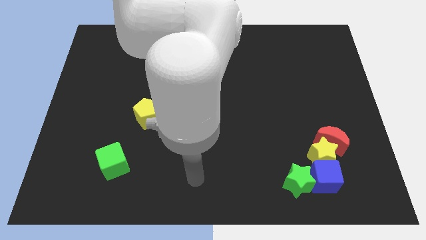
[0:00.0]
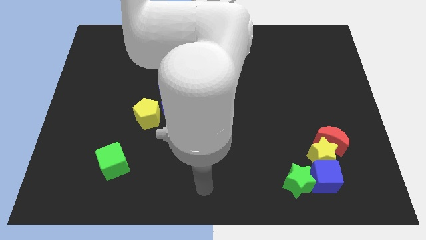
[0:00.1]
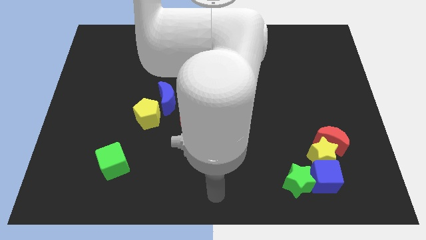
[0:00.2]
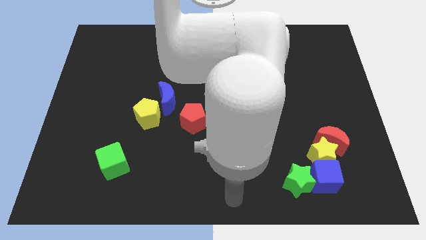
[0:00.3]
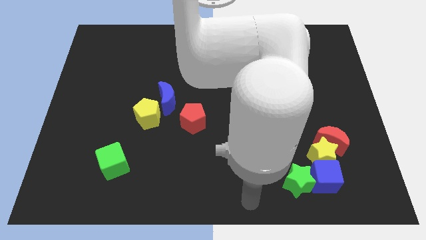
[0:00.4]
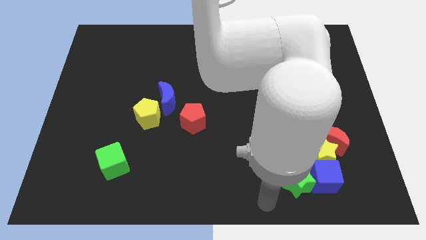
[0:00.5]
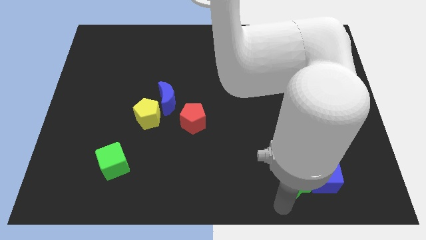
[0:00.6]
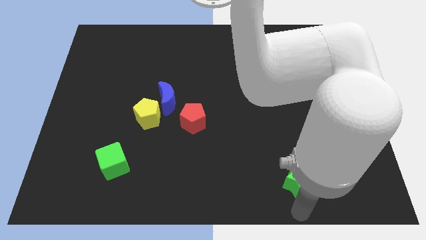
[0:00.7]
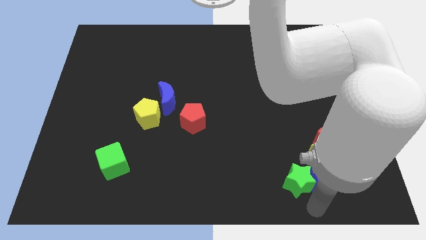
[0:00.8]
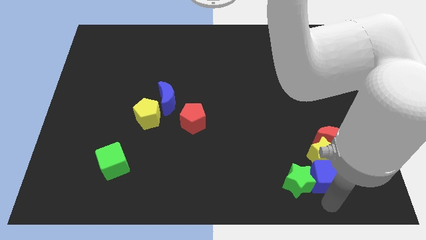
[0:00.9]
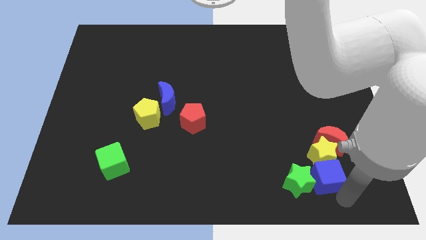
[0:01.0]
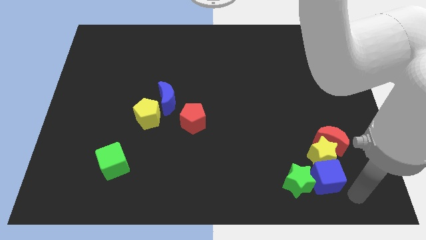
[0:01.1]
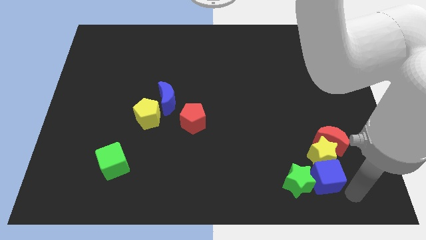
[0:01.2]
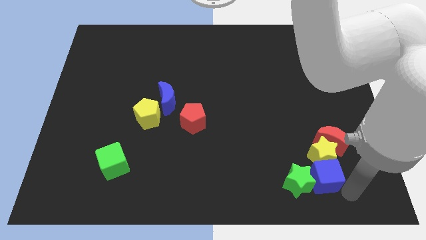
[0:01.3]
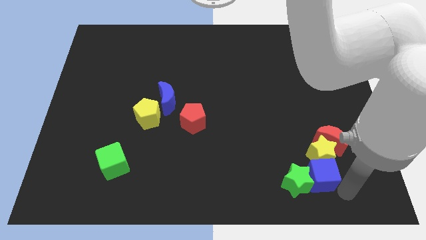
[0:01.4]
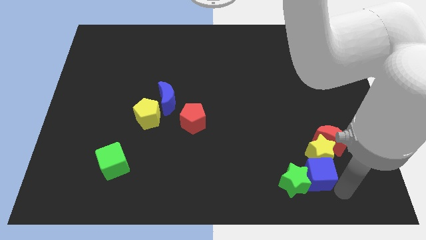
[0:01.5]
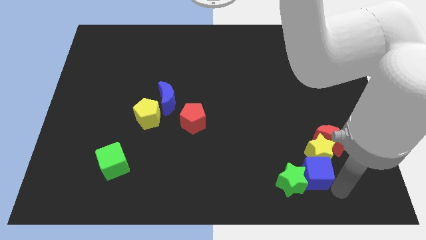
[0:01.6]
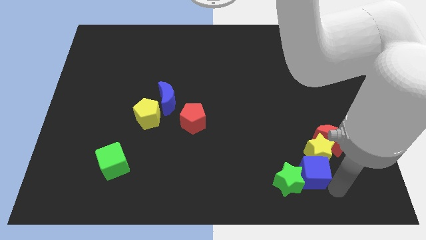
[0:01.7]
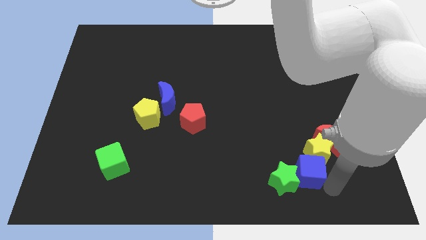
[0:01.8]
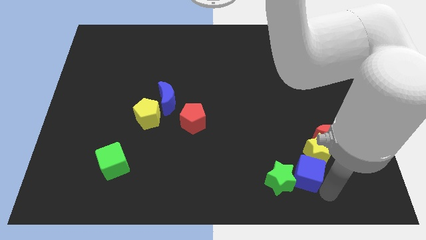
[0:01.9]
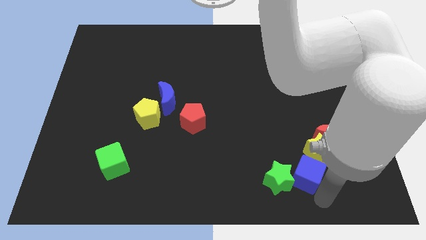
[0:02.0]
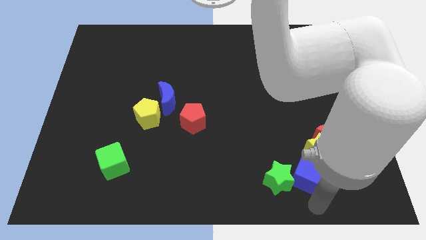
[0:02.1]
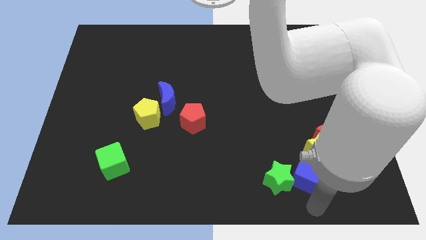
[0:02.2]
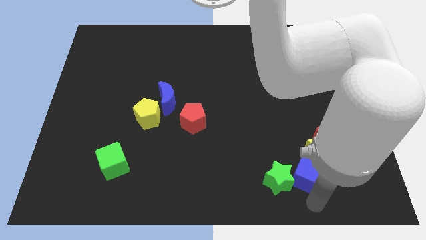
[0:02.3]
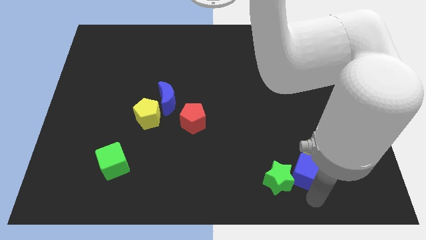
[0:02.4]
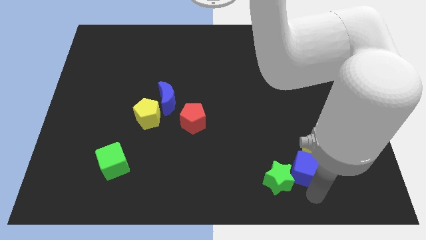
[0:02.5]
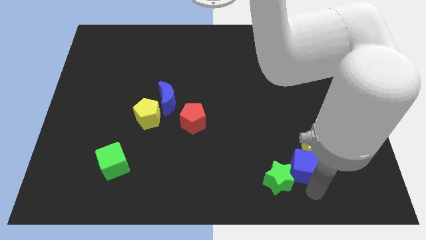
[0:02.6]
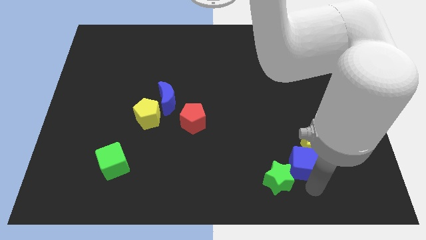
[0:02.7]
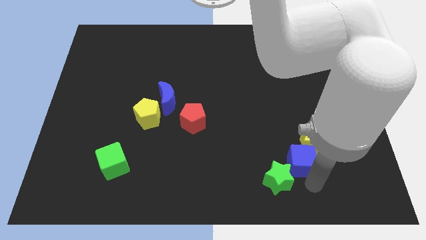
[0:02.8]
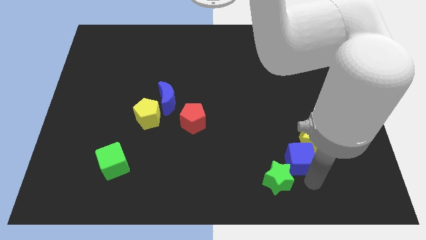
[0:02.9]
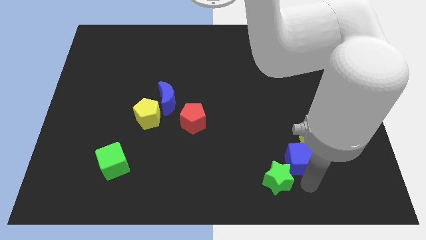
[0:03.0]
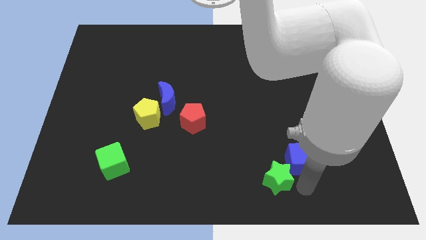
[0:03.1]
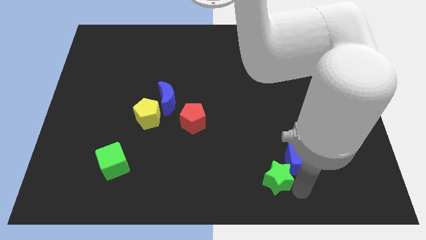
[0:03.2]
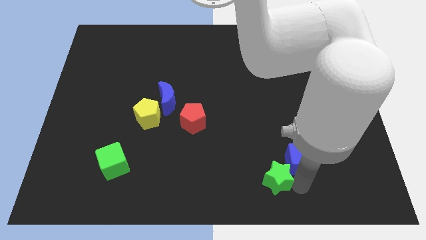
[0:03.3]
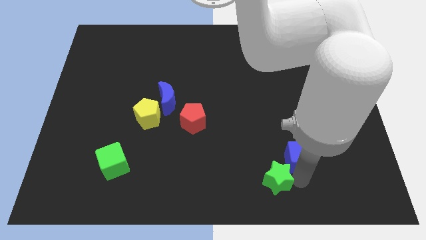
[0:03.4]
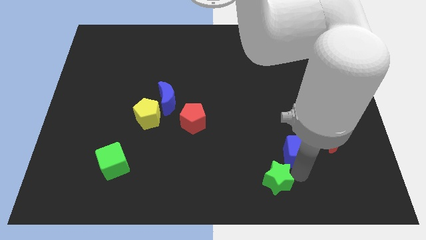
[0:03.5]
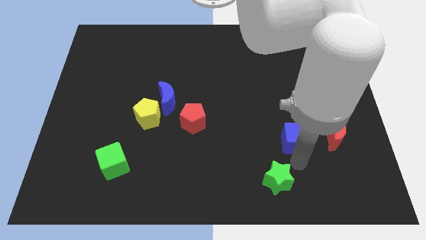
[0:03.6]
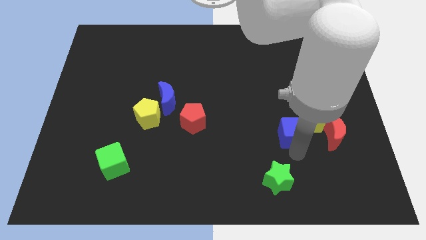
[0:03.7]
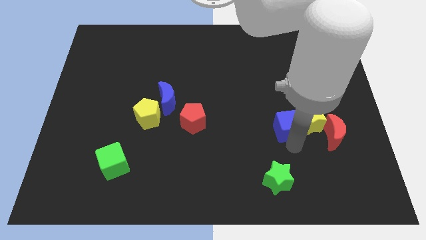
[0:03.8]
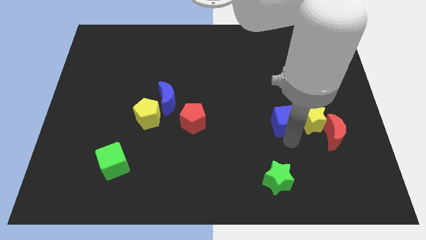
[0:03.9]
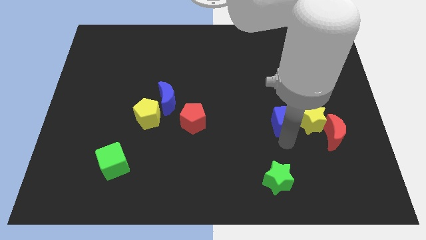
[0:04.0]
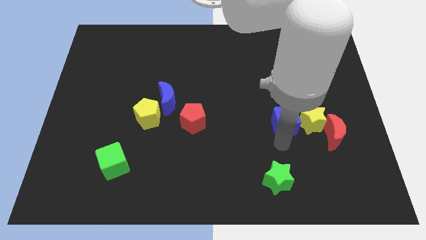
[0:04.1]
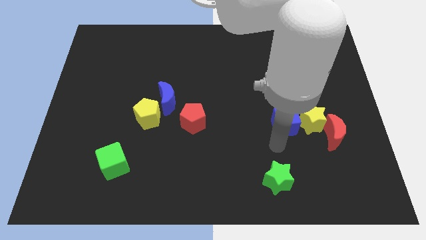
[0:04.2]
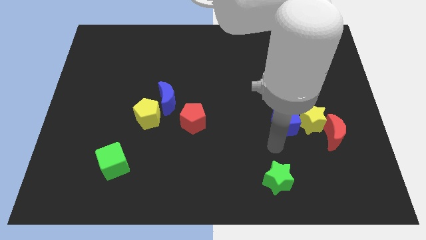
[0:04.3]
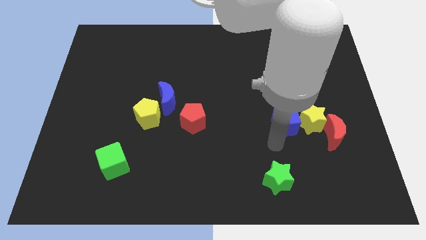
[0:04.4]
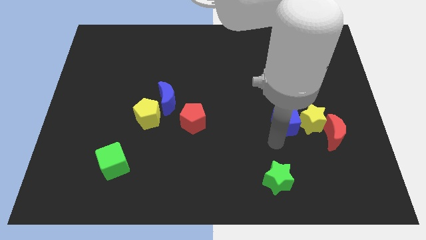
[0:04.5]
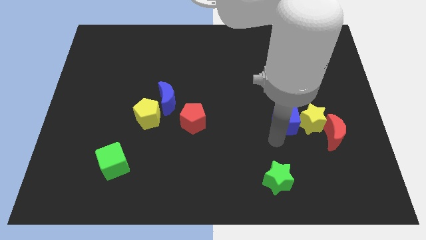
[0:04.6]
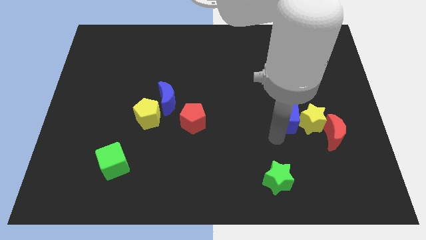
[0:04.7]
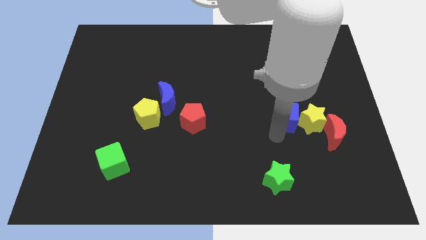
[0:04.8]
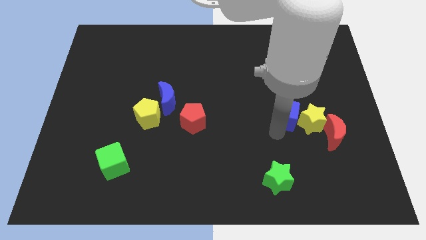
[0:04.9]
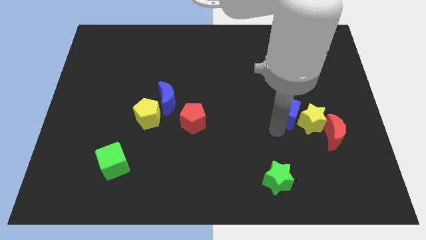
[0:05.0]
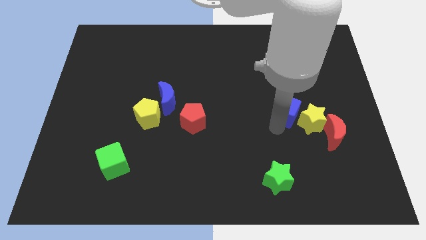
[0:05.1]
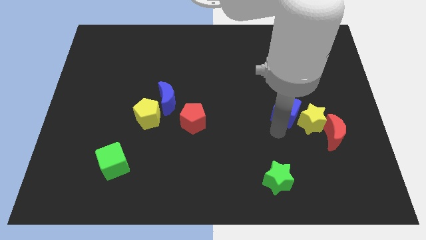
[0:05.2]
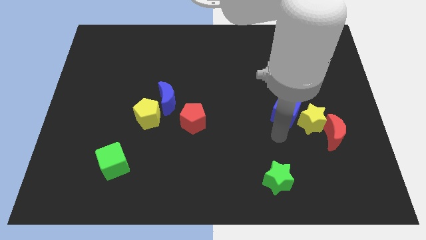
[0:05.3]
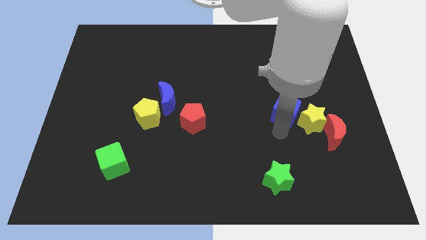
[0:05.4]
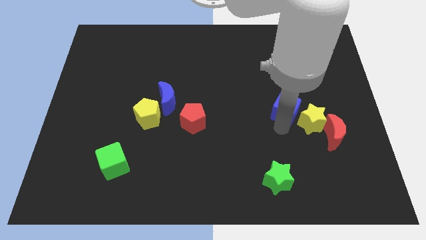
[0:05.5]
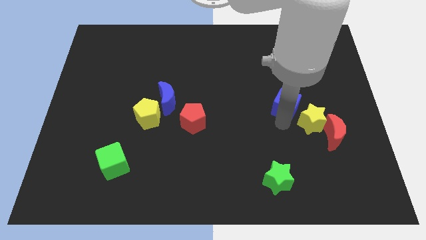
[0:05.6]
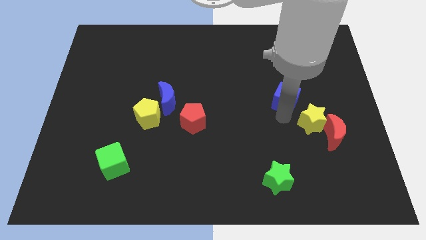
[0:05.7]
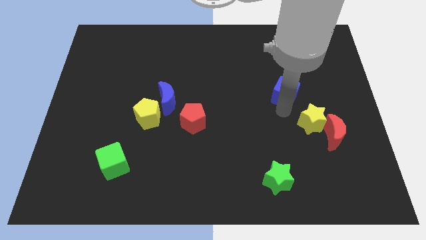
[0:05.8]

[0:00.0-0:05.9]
push the blue cube upwards

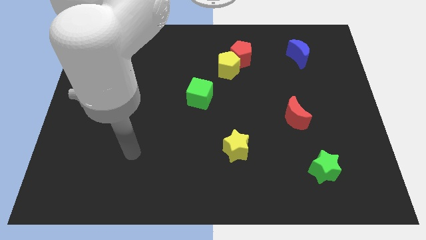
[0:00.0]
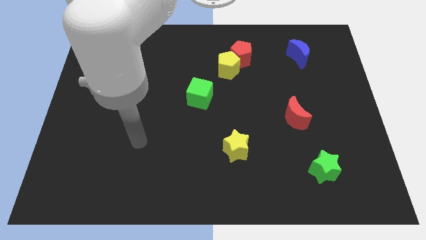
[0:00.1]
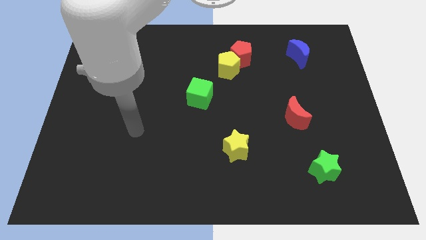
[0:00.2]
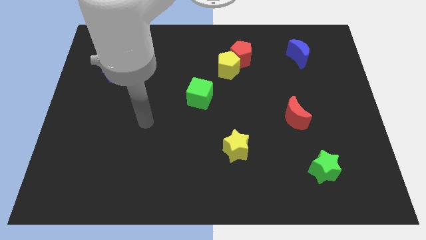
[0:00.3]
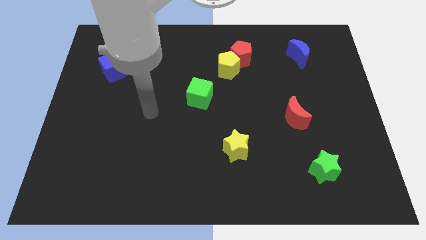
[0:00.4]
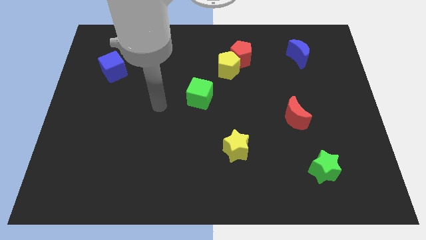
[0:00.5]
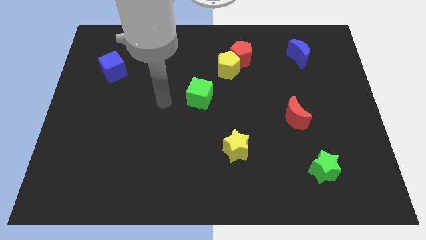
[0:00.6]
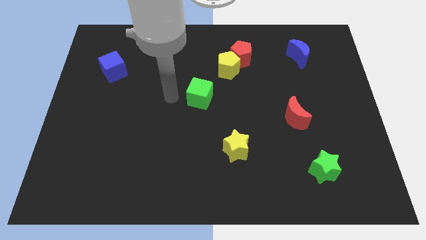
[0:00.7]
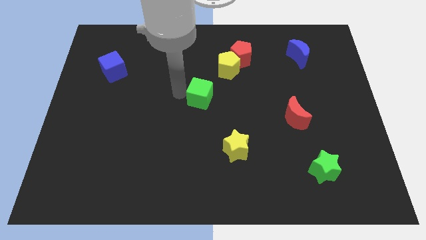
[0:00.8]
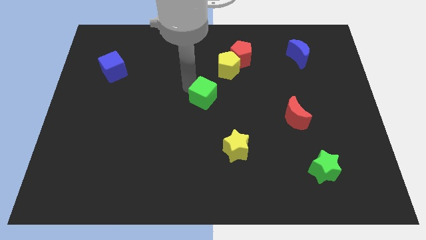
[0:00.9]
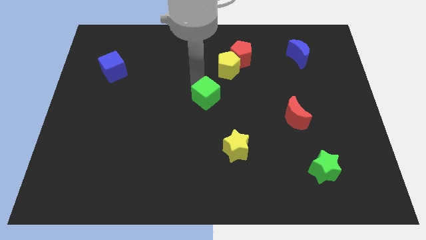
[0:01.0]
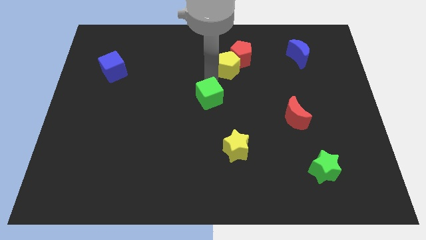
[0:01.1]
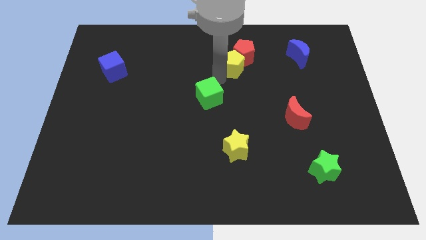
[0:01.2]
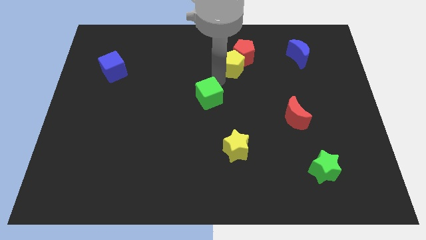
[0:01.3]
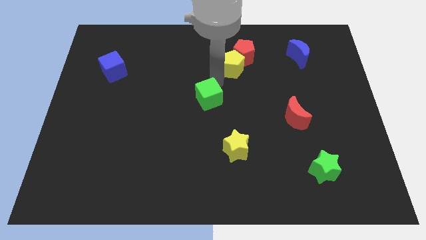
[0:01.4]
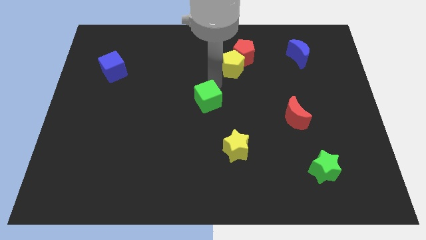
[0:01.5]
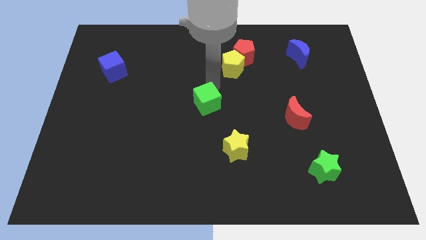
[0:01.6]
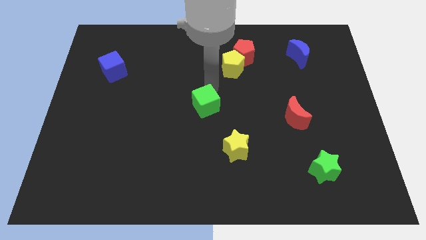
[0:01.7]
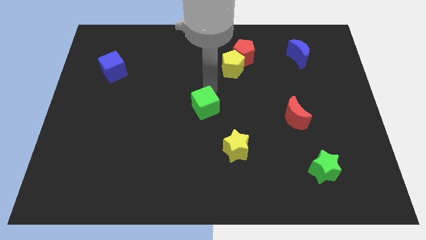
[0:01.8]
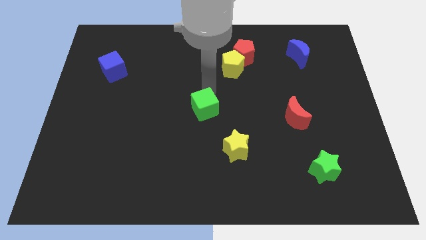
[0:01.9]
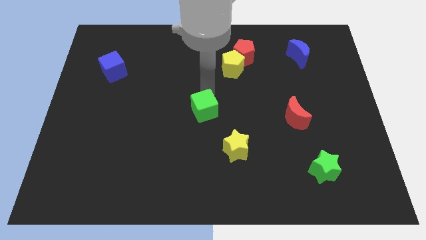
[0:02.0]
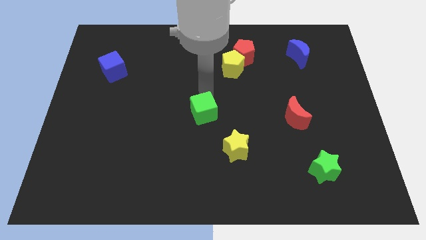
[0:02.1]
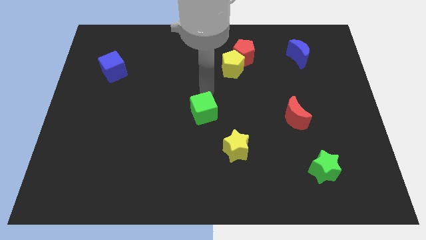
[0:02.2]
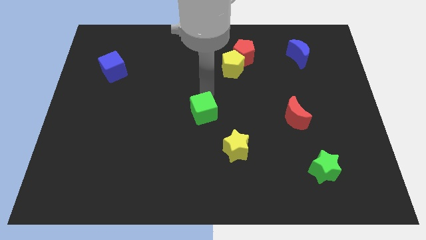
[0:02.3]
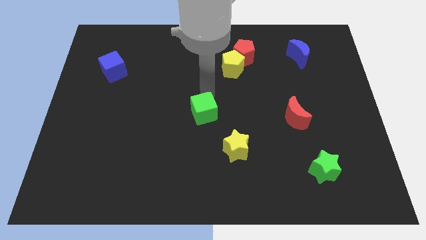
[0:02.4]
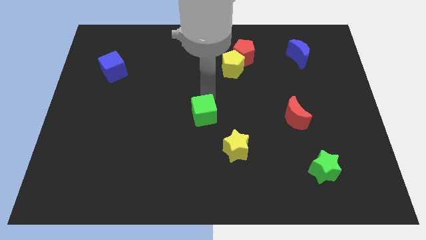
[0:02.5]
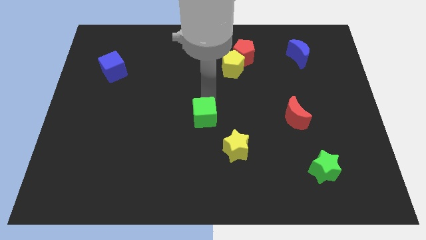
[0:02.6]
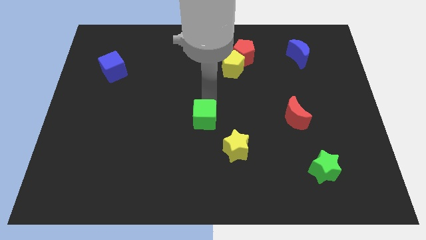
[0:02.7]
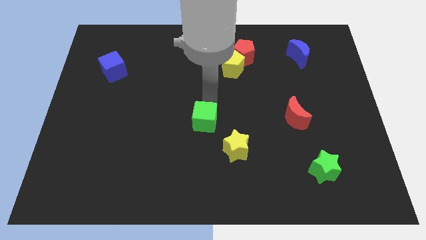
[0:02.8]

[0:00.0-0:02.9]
slide the green cube a little down
